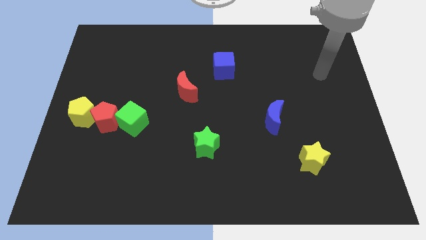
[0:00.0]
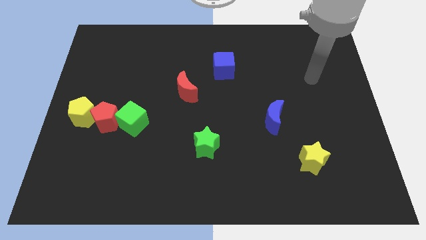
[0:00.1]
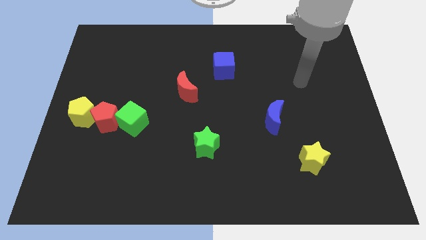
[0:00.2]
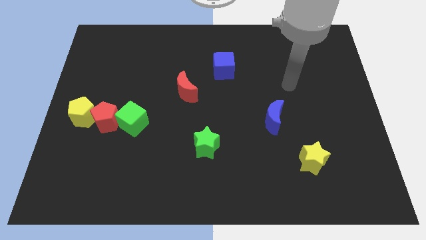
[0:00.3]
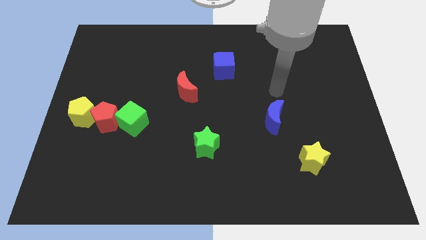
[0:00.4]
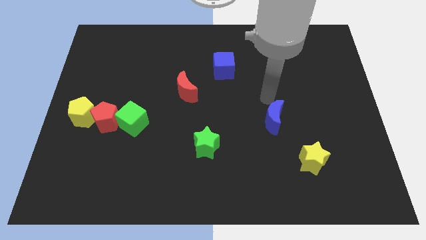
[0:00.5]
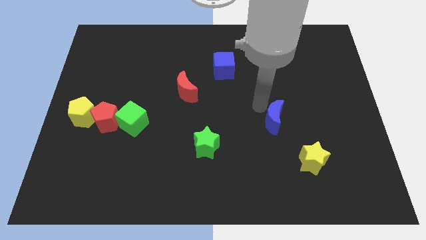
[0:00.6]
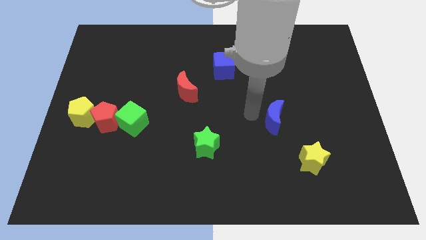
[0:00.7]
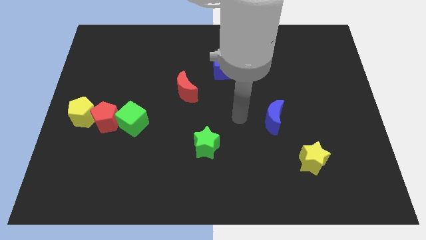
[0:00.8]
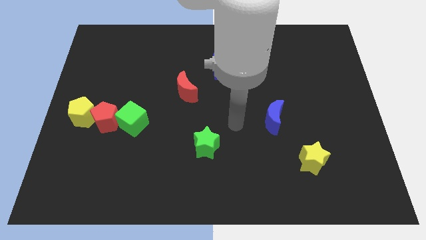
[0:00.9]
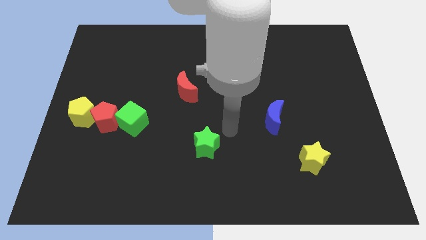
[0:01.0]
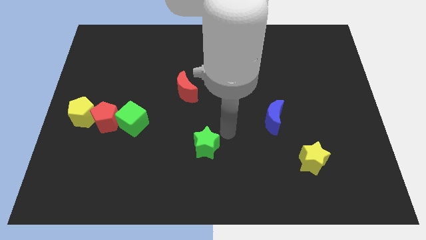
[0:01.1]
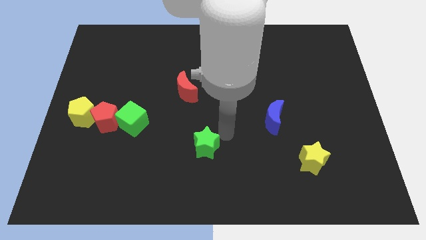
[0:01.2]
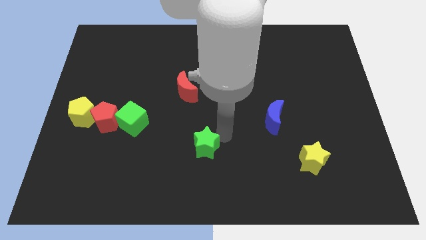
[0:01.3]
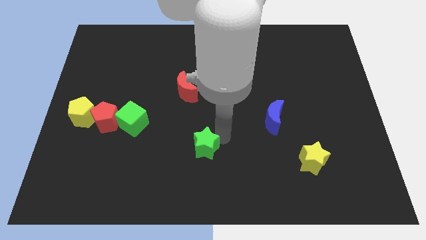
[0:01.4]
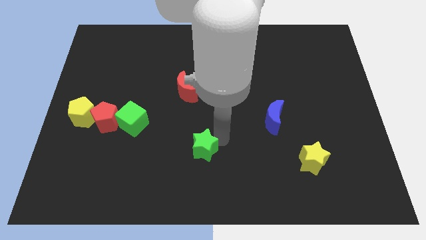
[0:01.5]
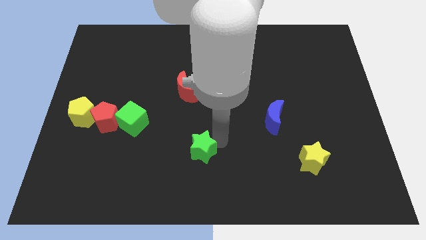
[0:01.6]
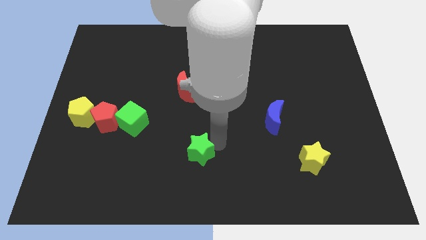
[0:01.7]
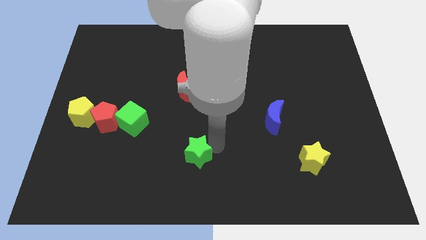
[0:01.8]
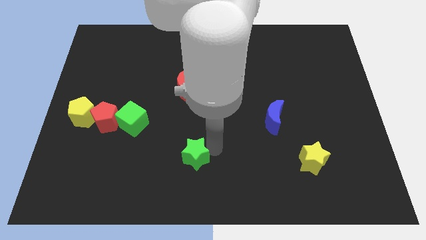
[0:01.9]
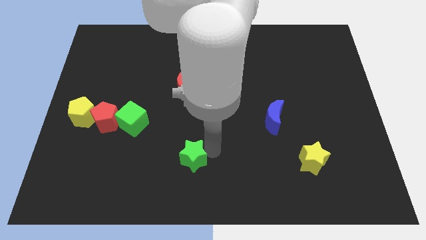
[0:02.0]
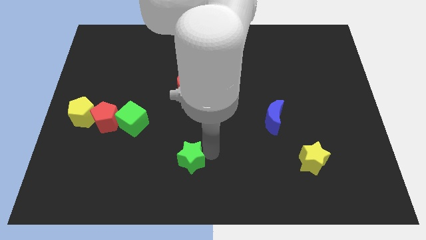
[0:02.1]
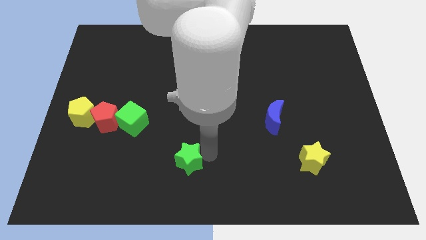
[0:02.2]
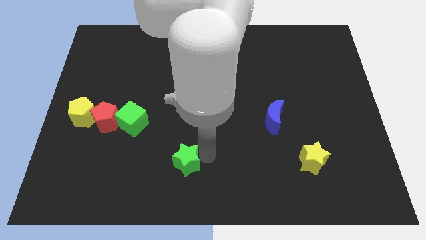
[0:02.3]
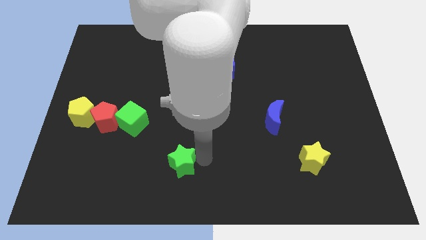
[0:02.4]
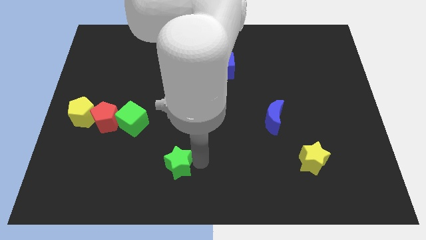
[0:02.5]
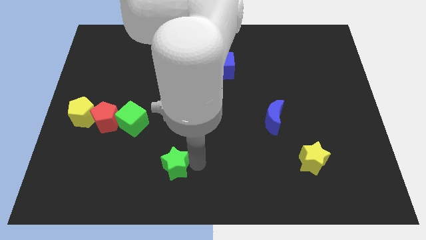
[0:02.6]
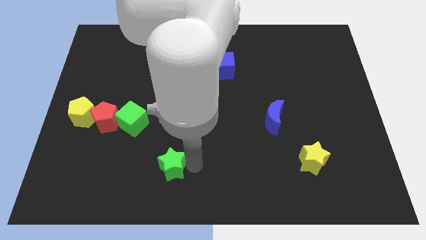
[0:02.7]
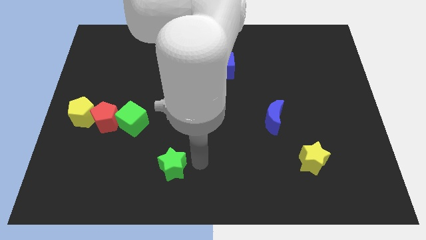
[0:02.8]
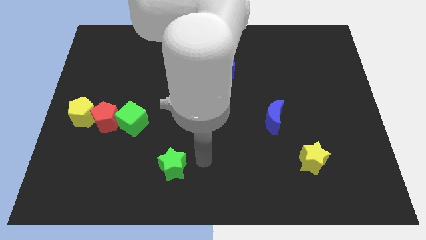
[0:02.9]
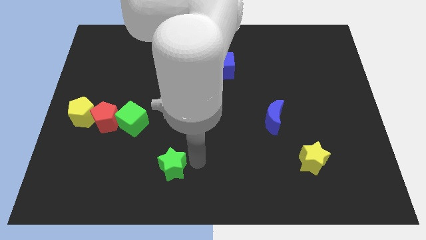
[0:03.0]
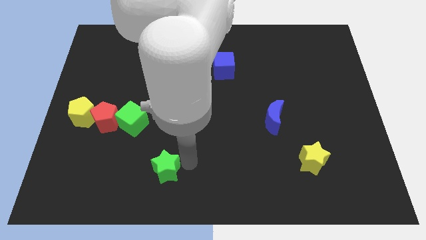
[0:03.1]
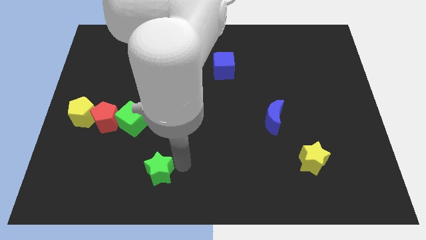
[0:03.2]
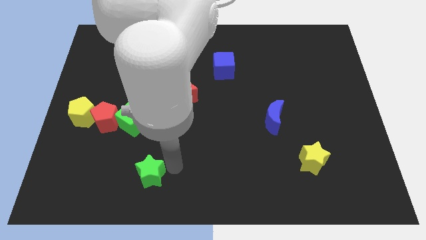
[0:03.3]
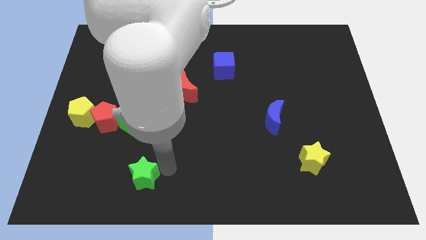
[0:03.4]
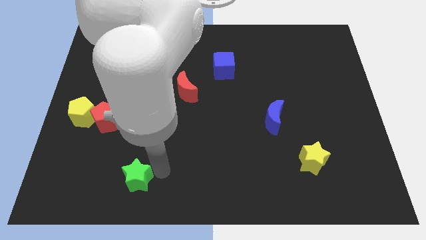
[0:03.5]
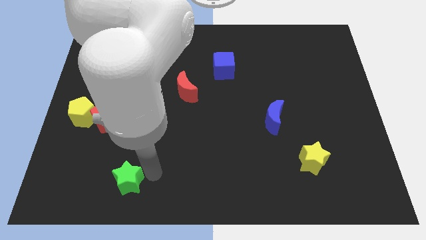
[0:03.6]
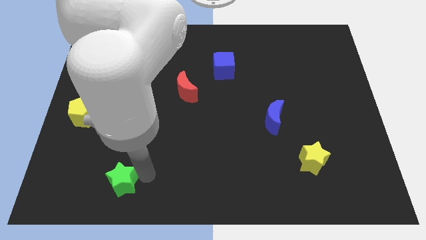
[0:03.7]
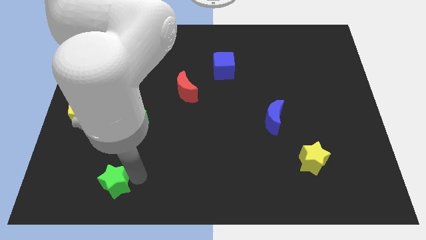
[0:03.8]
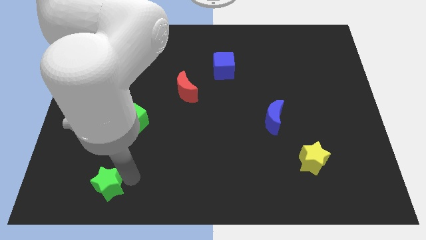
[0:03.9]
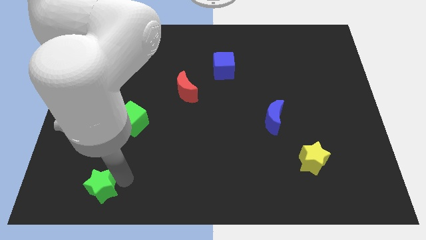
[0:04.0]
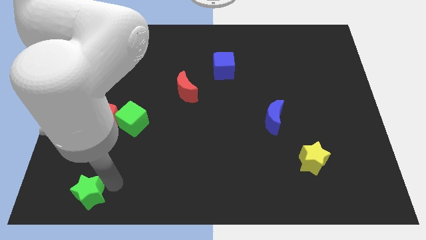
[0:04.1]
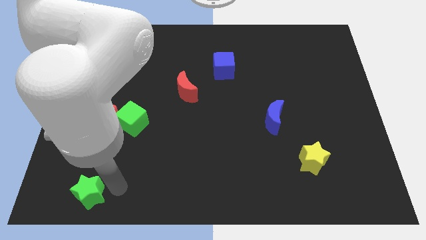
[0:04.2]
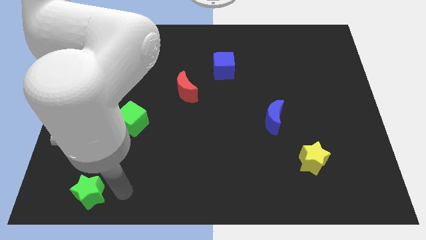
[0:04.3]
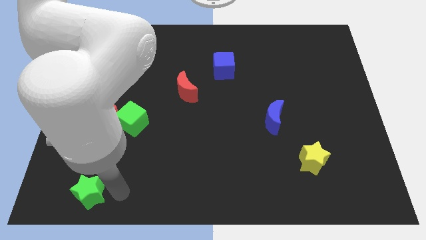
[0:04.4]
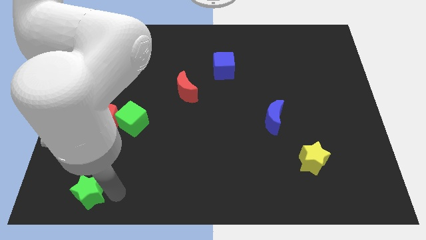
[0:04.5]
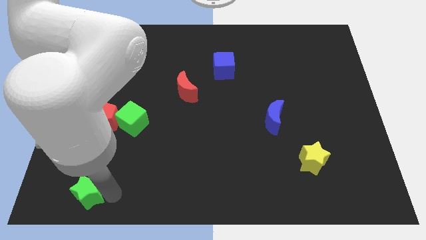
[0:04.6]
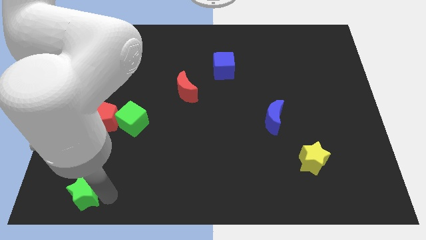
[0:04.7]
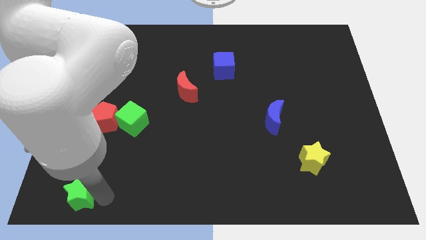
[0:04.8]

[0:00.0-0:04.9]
push the green star to the lower left corner

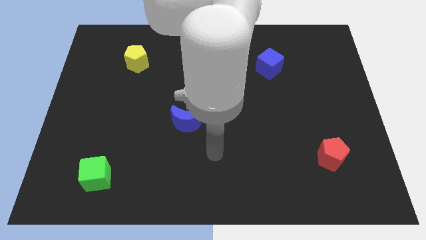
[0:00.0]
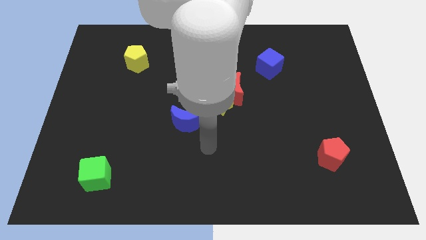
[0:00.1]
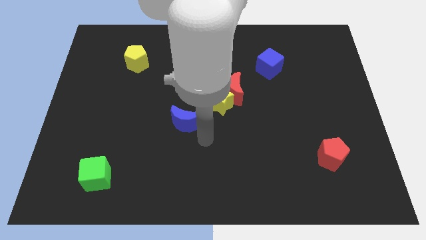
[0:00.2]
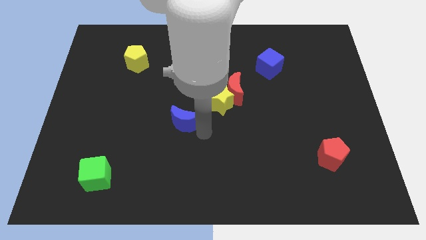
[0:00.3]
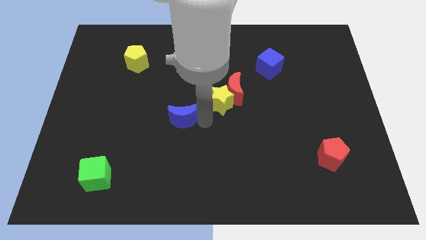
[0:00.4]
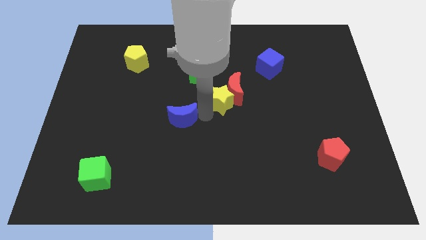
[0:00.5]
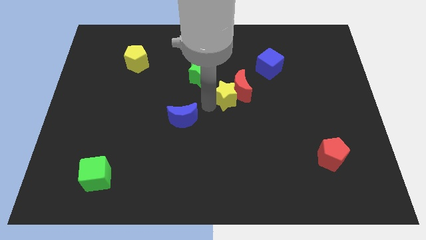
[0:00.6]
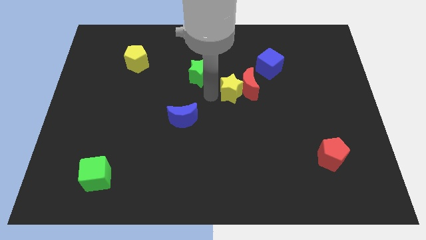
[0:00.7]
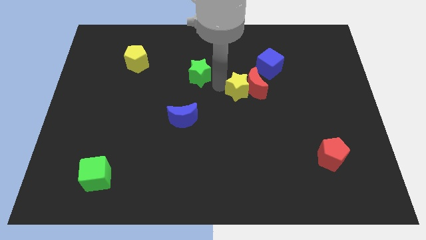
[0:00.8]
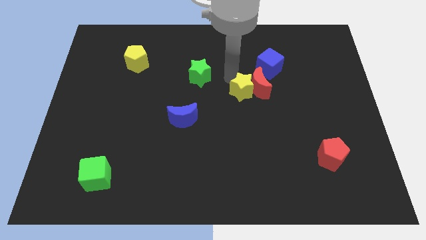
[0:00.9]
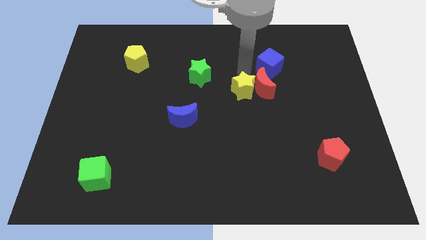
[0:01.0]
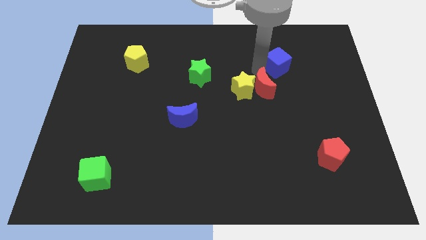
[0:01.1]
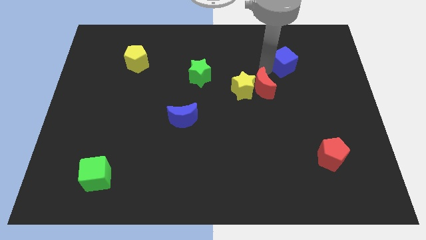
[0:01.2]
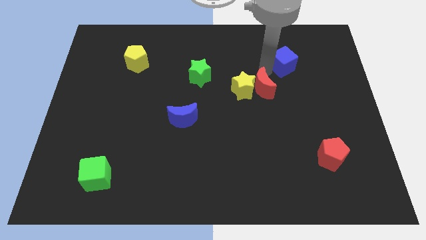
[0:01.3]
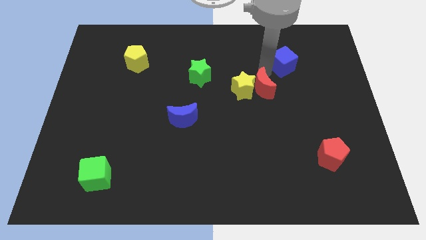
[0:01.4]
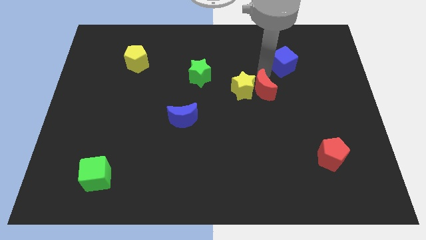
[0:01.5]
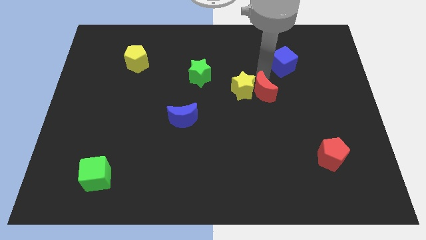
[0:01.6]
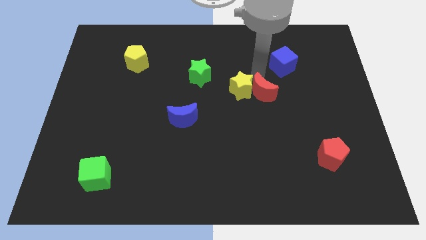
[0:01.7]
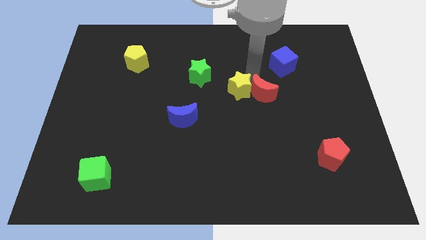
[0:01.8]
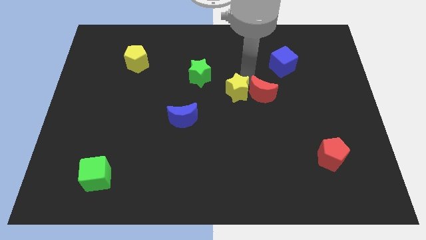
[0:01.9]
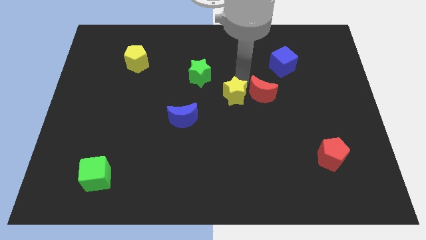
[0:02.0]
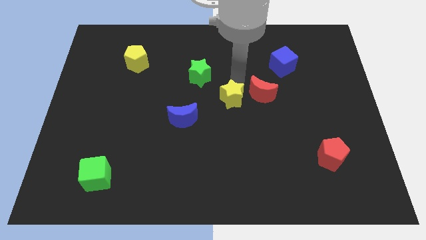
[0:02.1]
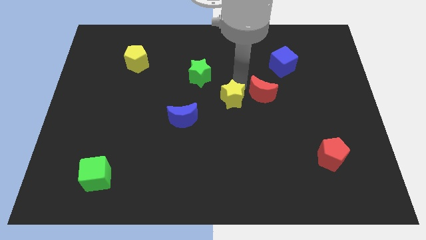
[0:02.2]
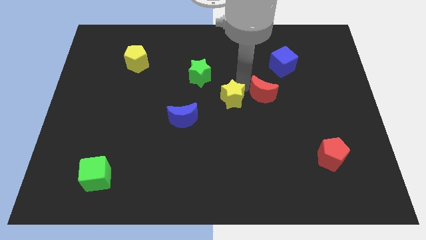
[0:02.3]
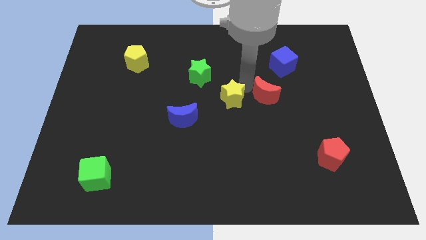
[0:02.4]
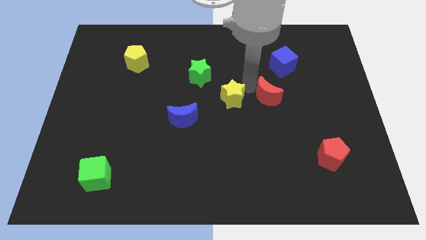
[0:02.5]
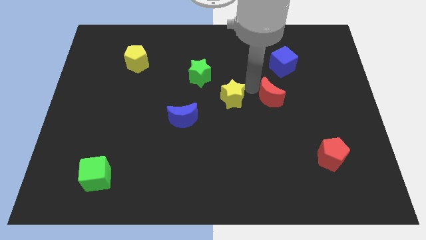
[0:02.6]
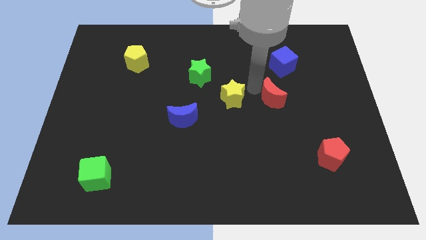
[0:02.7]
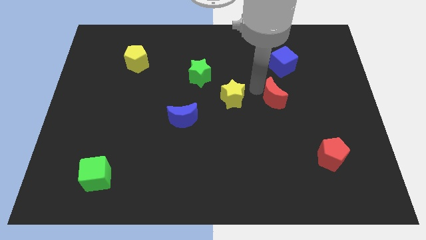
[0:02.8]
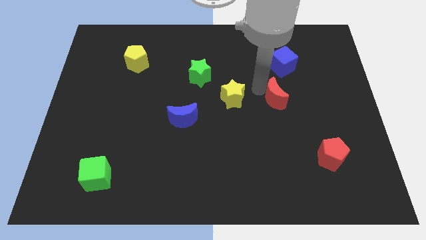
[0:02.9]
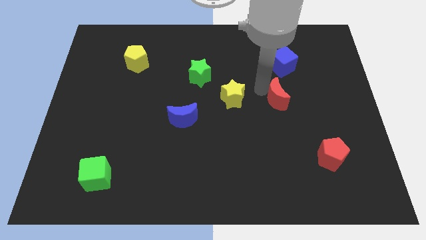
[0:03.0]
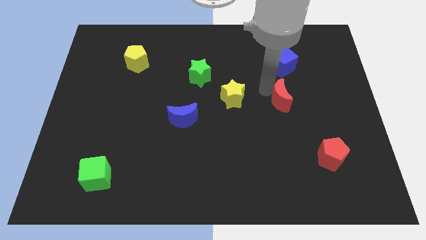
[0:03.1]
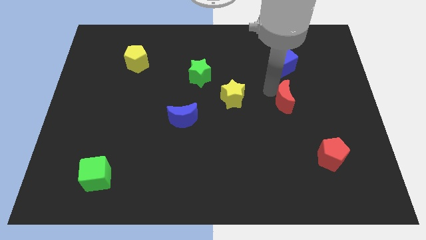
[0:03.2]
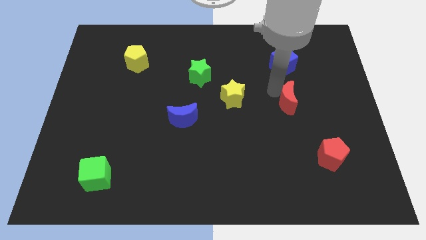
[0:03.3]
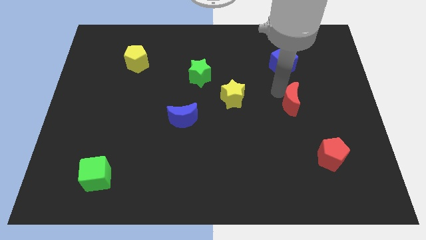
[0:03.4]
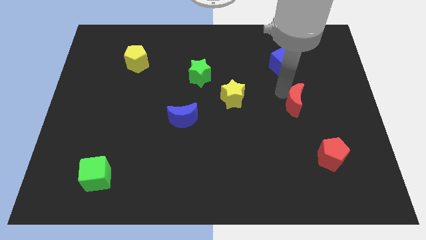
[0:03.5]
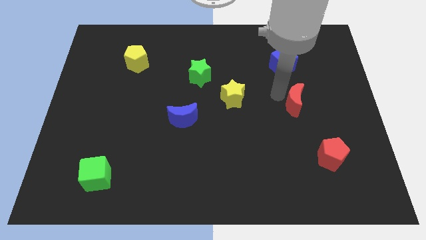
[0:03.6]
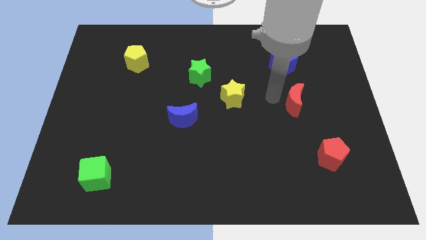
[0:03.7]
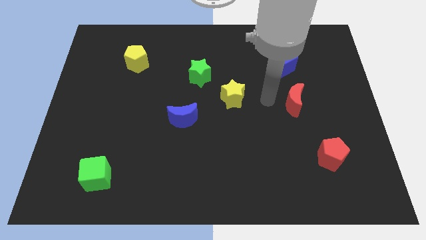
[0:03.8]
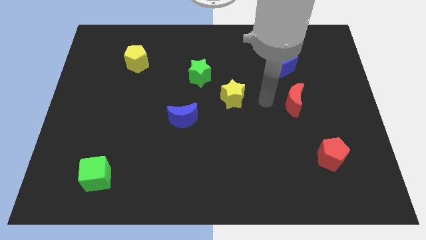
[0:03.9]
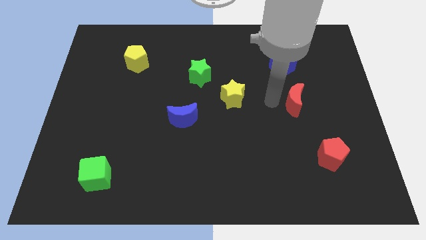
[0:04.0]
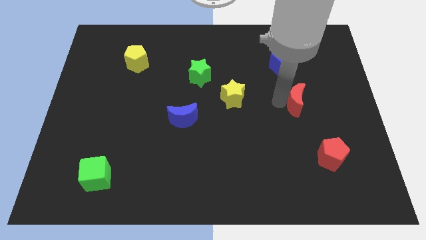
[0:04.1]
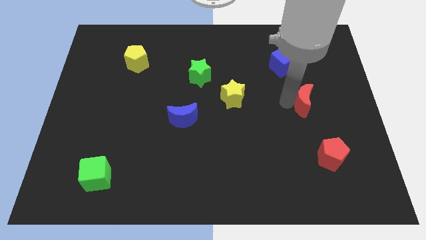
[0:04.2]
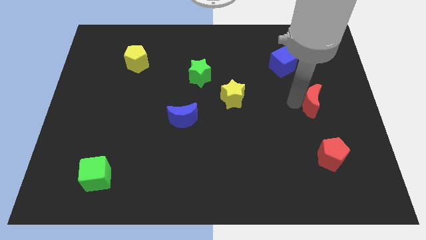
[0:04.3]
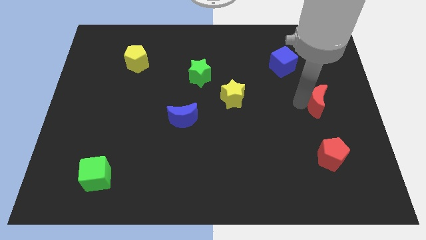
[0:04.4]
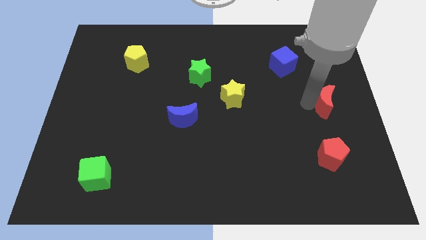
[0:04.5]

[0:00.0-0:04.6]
move the red moon to the right side of the board
